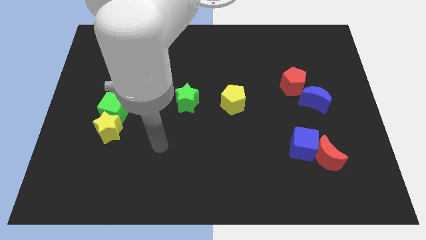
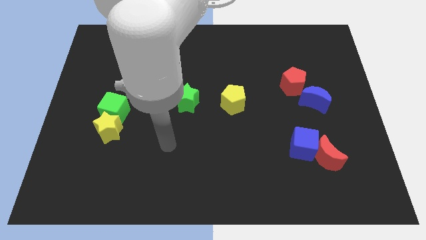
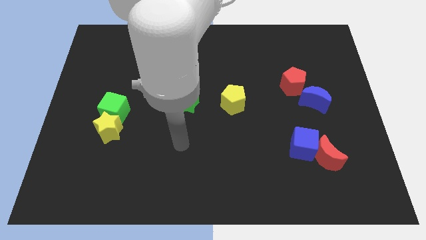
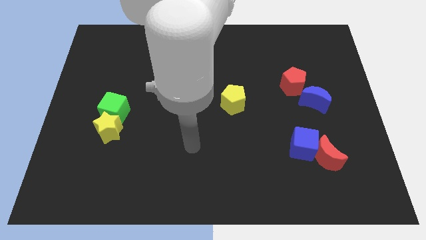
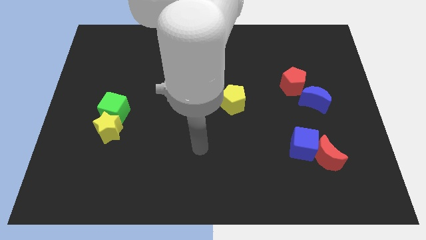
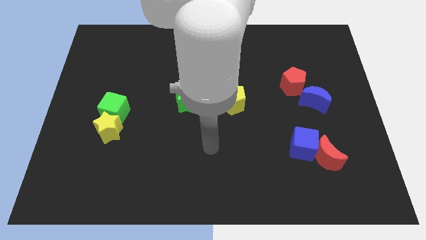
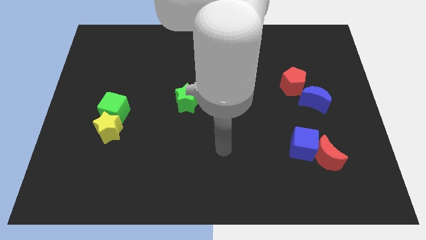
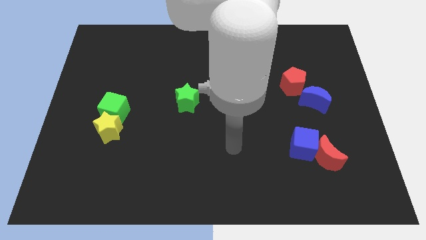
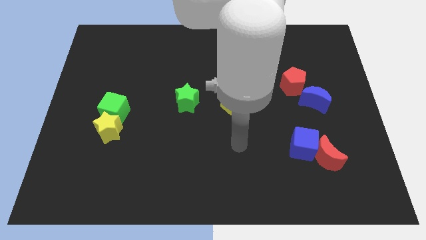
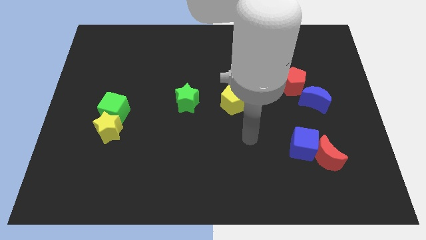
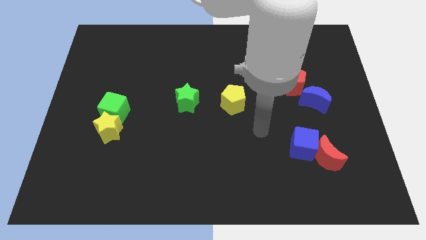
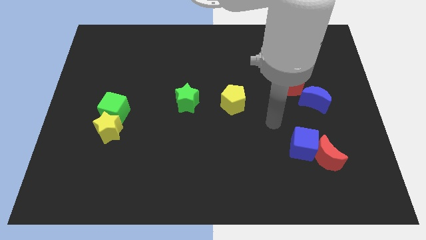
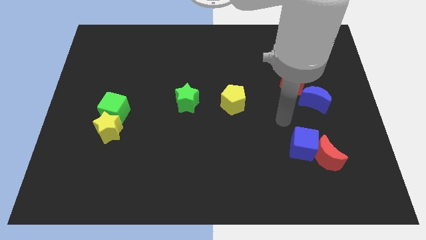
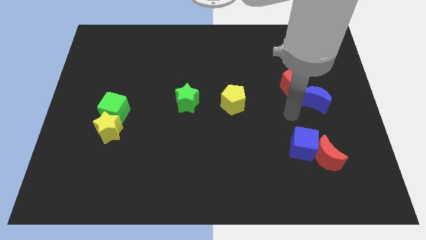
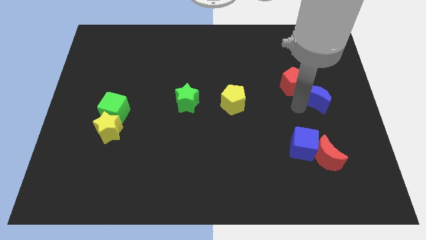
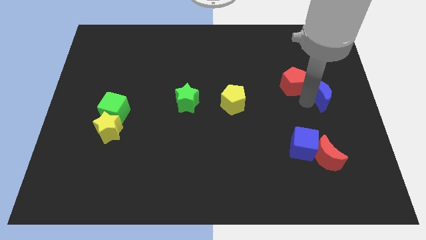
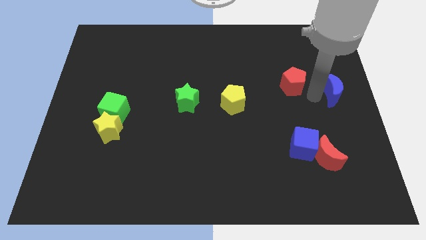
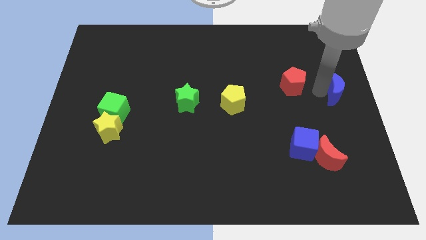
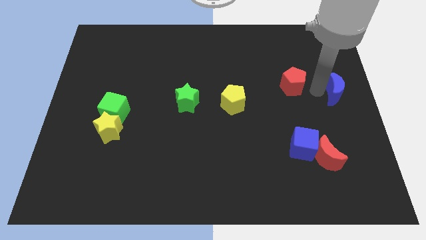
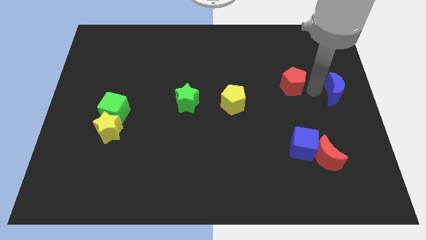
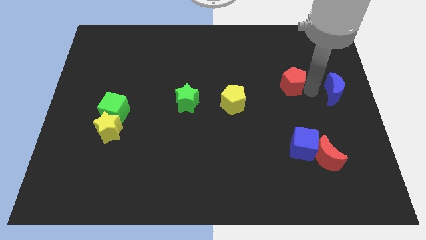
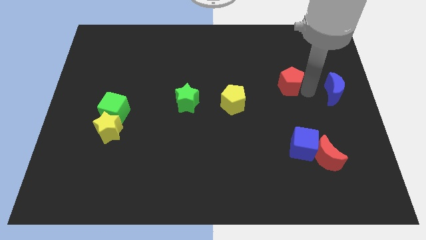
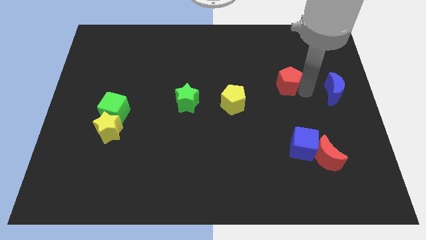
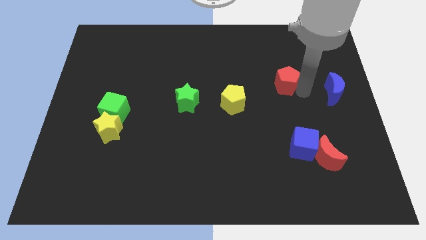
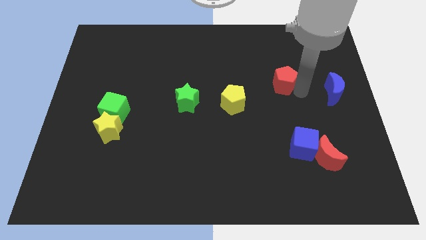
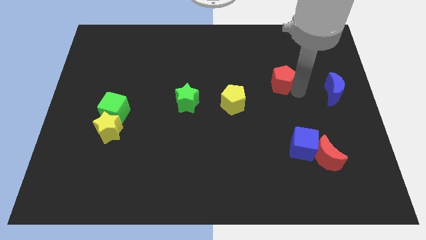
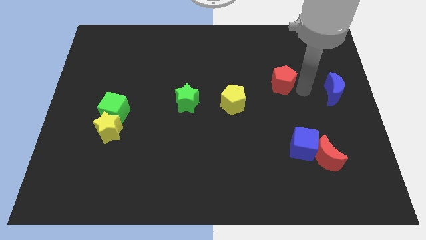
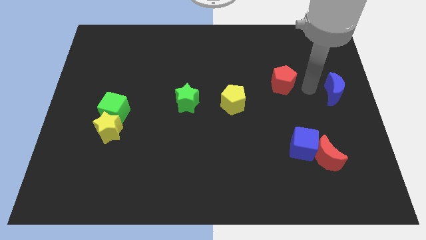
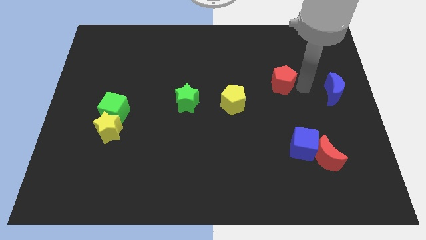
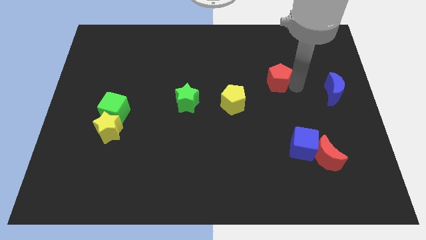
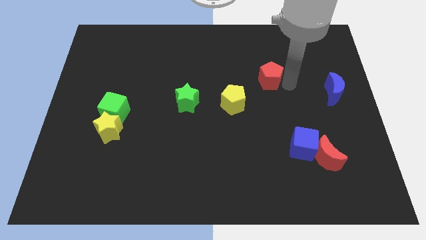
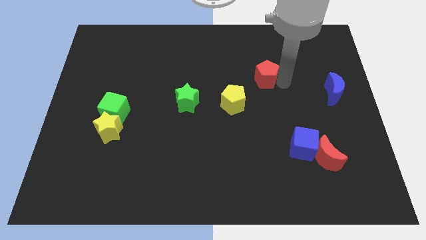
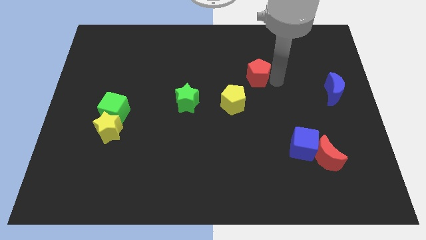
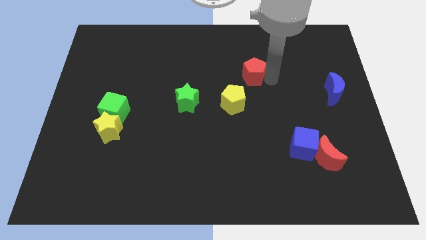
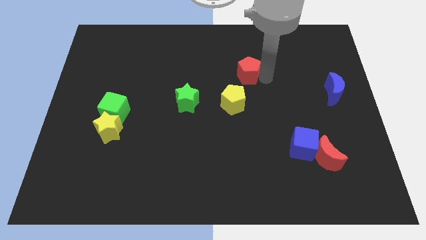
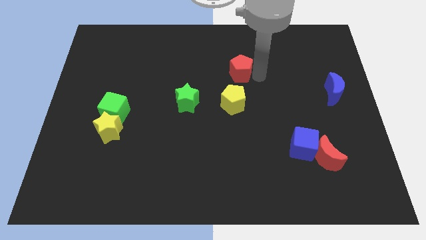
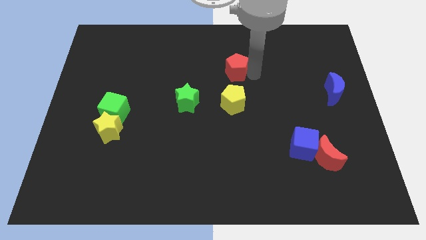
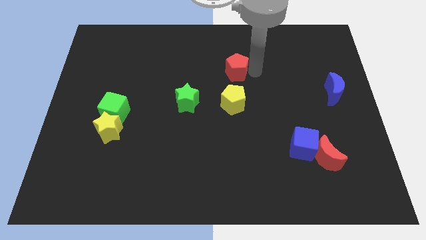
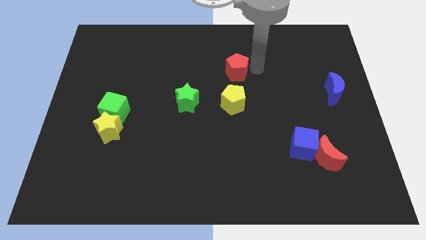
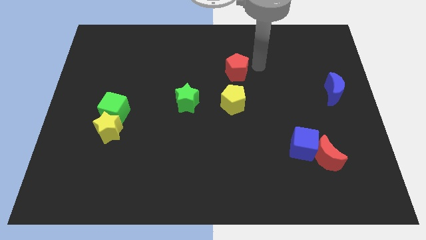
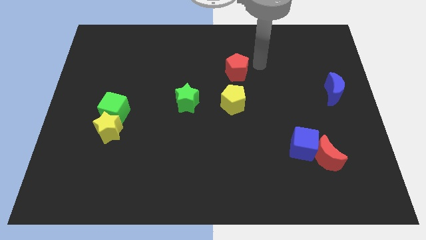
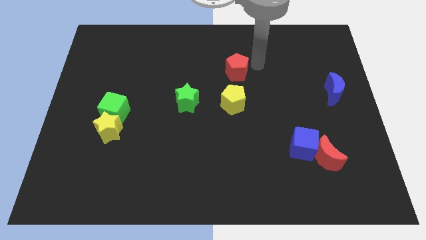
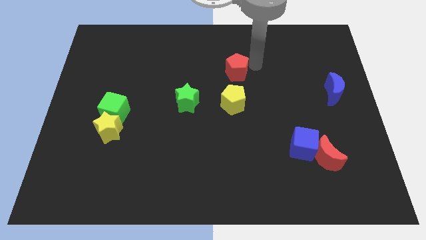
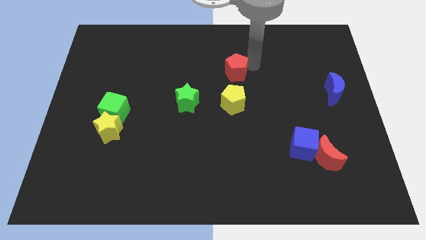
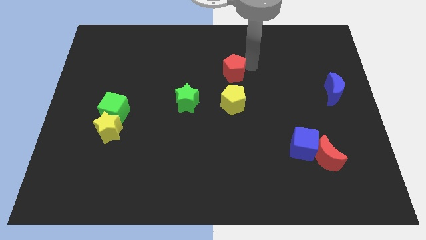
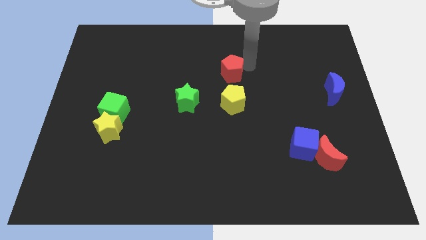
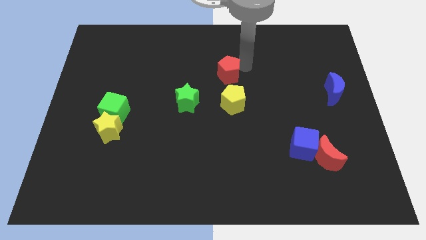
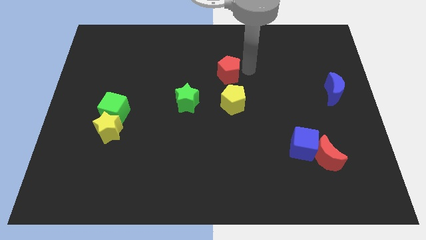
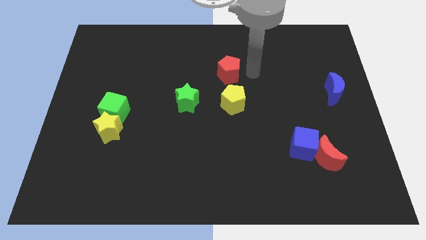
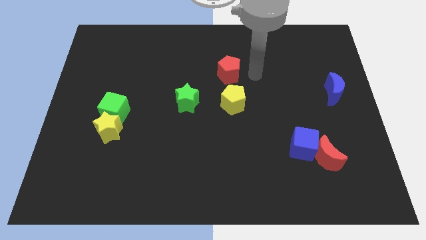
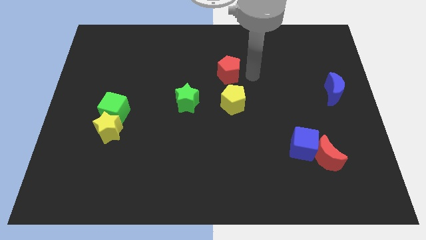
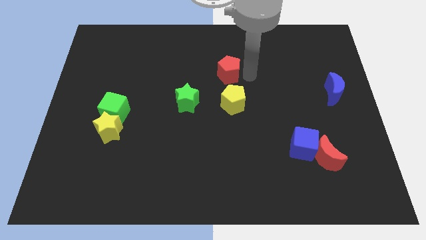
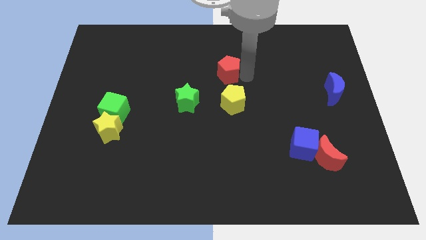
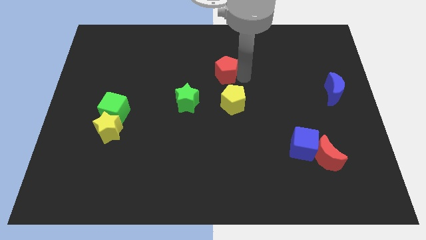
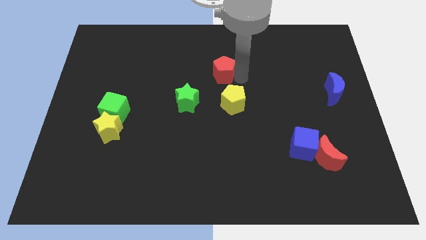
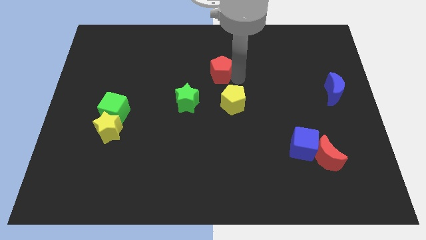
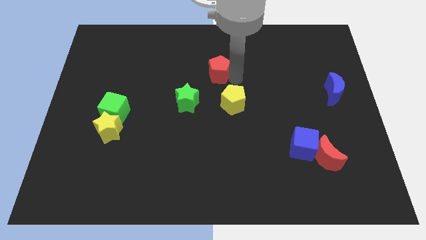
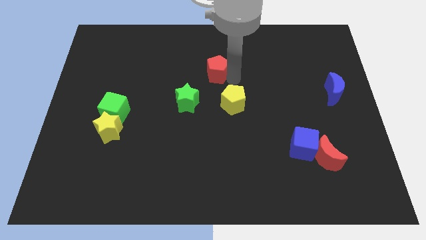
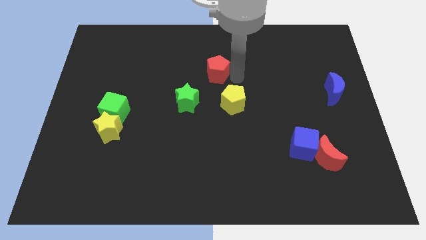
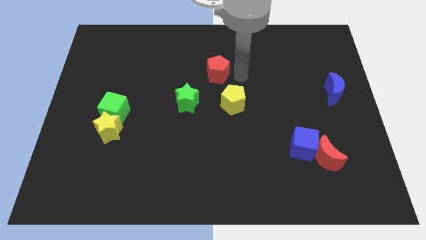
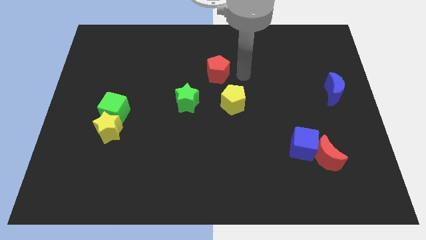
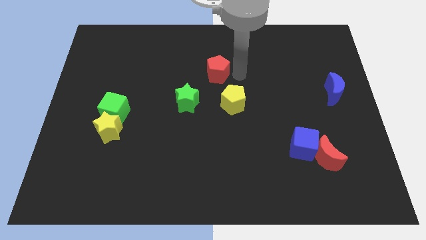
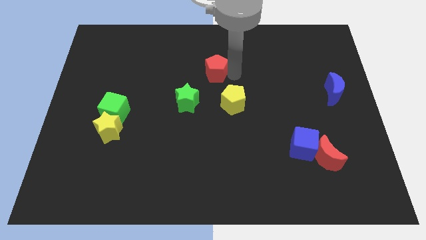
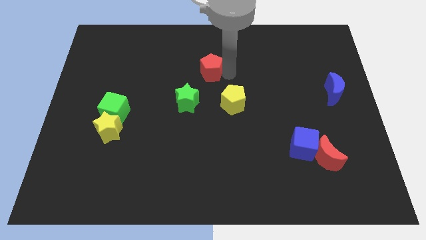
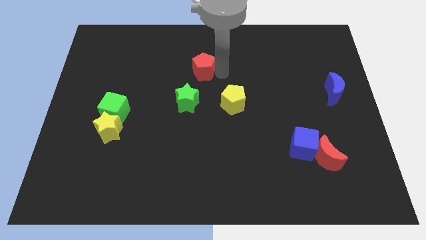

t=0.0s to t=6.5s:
push the red pentagon above the green star

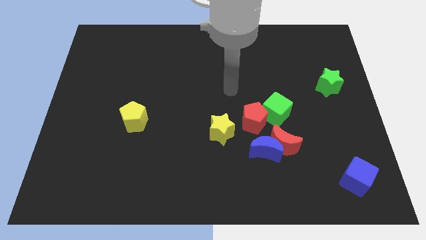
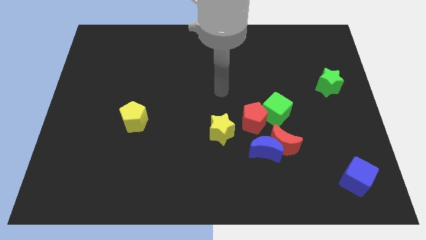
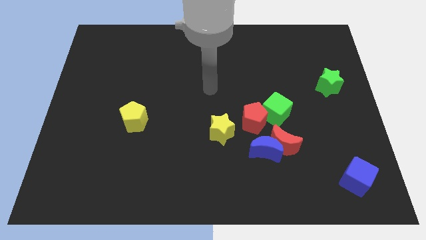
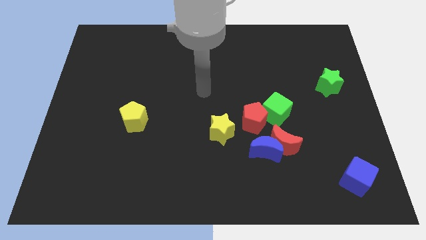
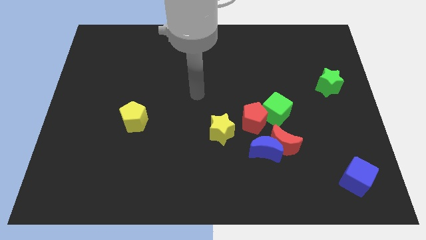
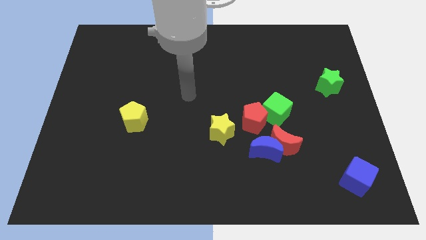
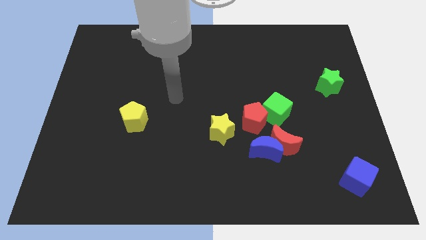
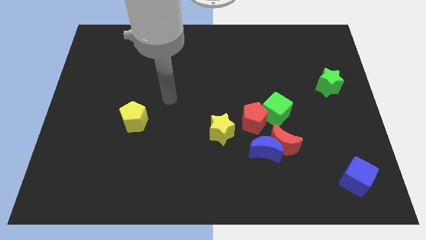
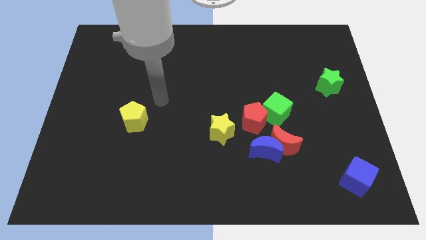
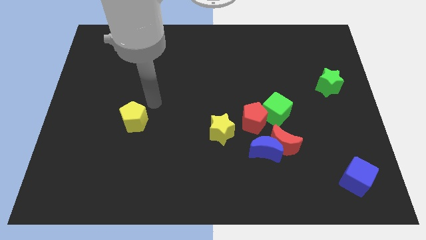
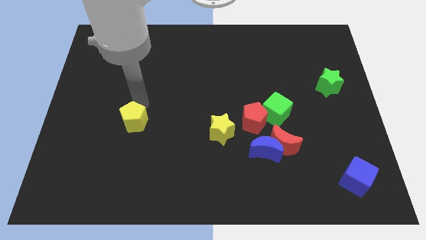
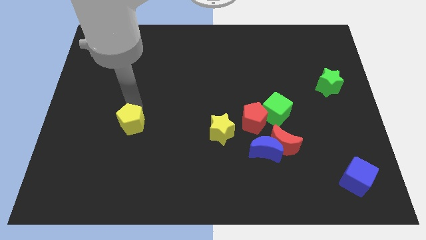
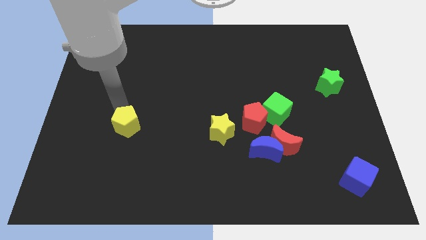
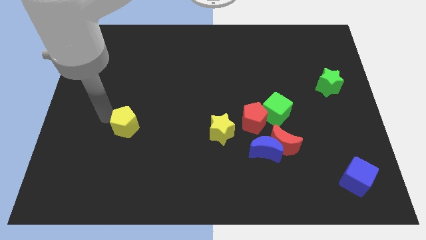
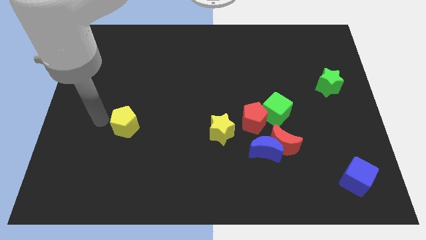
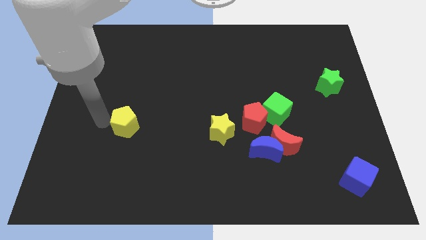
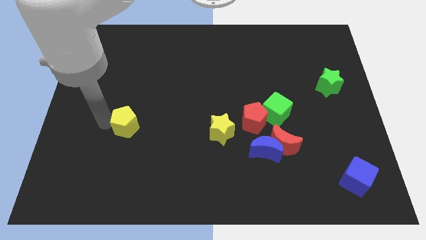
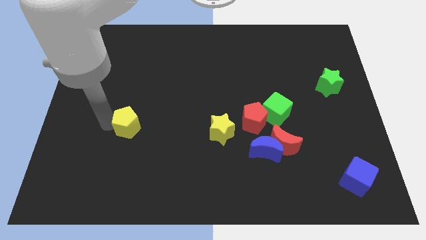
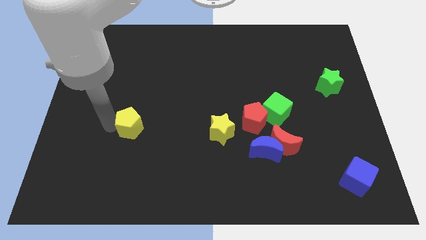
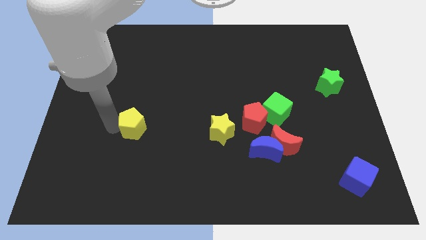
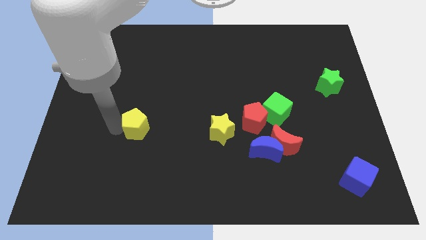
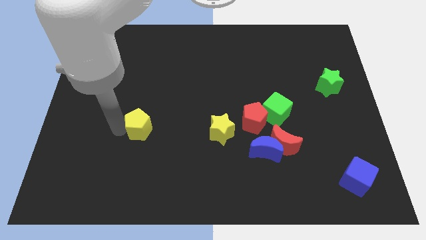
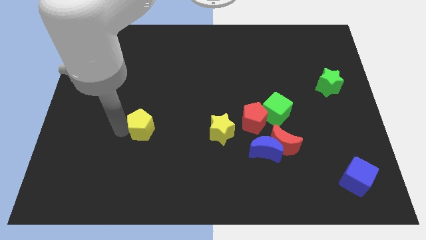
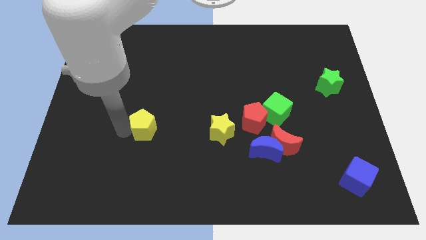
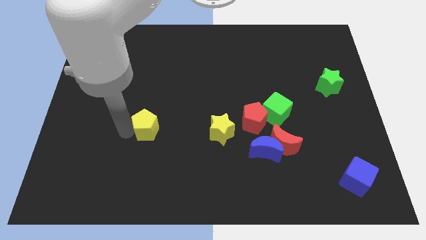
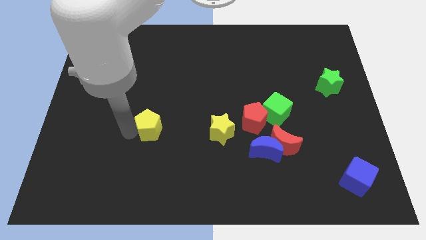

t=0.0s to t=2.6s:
slide the yellow pentagon left of the yellow star
